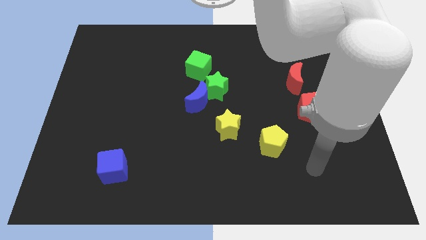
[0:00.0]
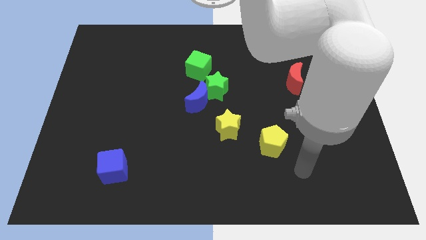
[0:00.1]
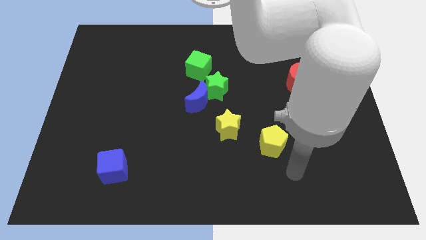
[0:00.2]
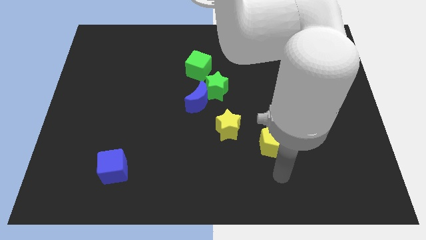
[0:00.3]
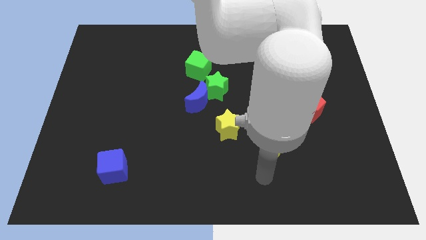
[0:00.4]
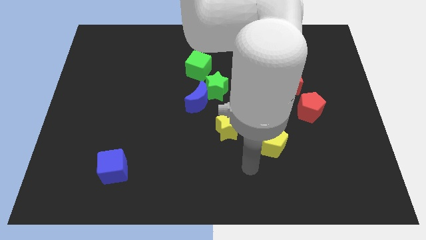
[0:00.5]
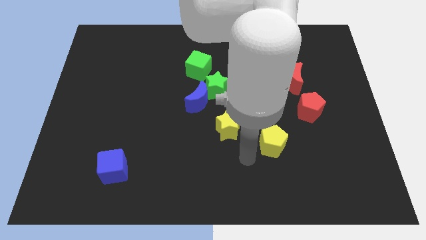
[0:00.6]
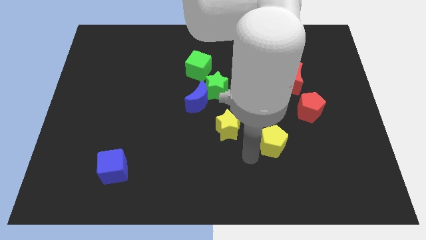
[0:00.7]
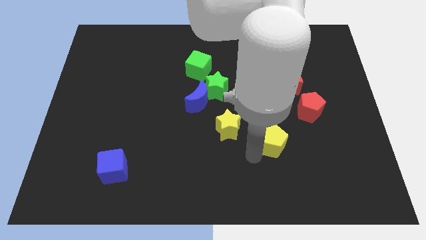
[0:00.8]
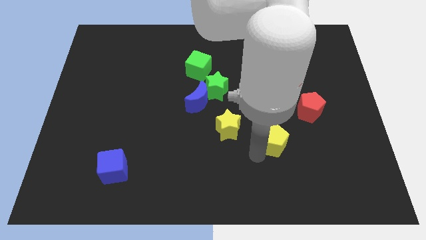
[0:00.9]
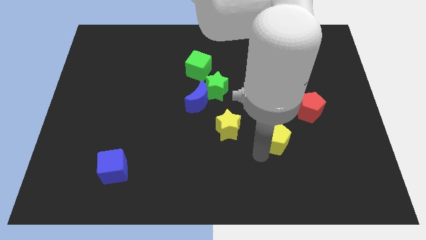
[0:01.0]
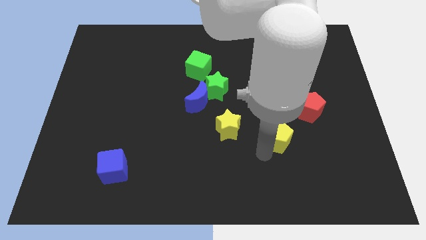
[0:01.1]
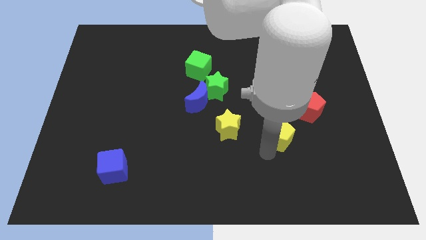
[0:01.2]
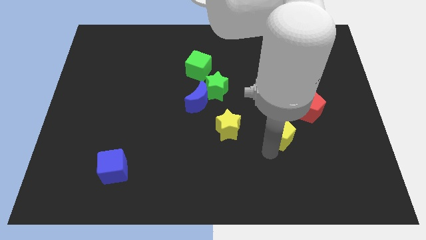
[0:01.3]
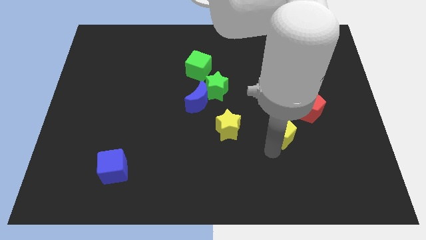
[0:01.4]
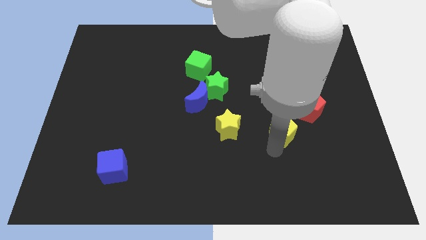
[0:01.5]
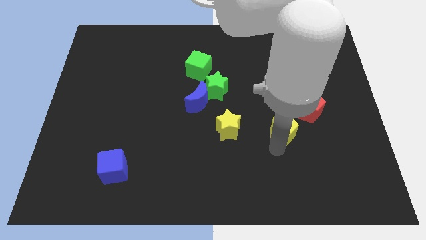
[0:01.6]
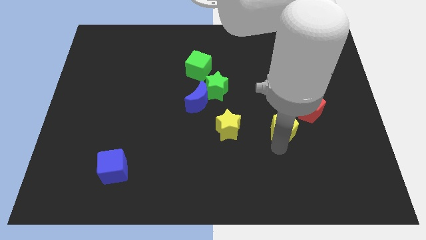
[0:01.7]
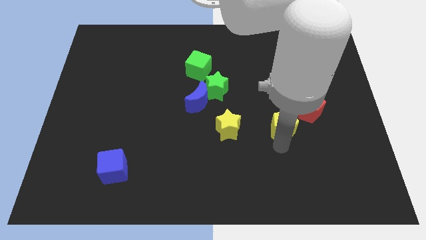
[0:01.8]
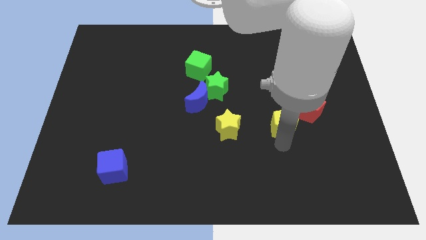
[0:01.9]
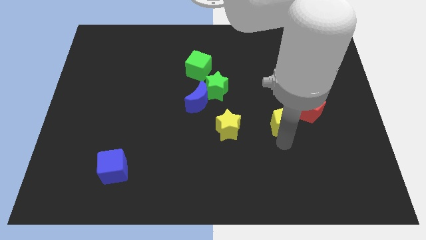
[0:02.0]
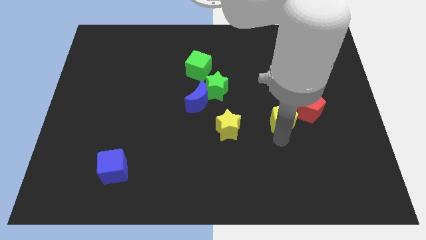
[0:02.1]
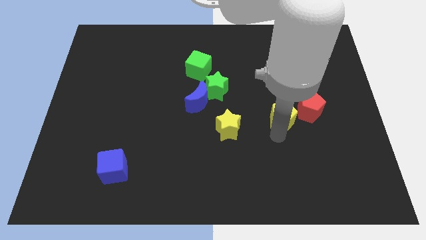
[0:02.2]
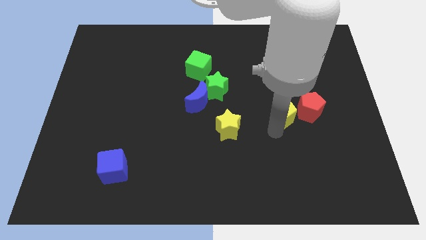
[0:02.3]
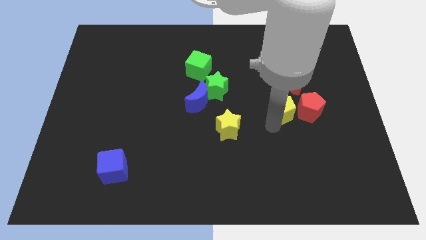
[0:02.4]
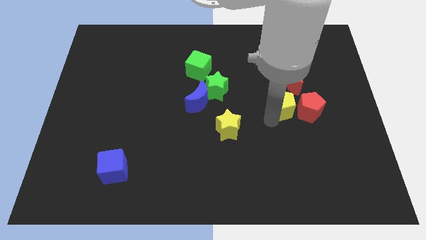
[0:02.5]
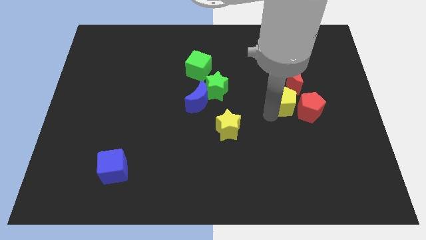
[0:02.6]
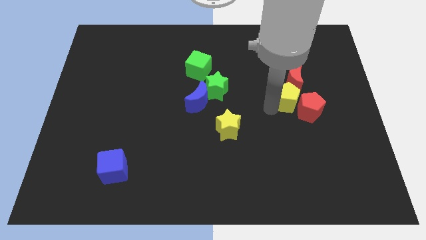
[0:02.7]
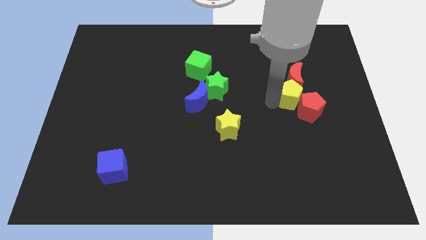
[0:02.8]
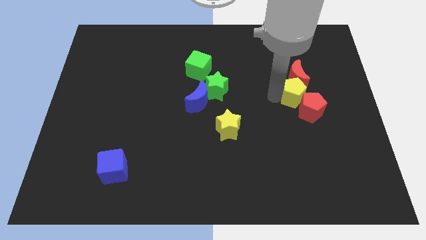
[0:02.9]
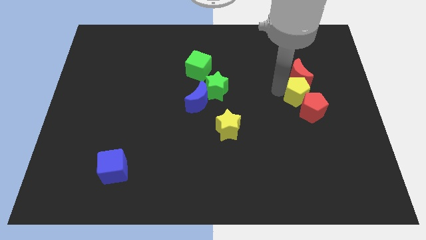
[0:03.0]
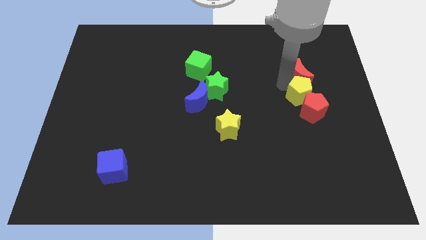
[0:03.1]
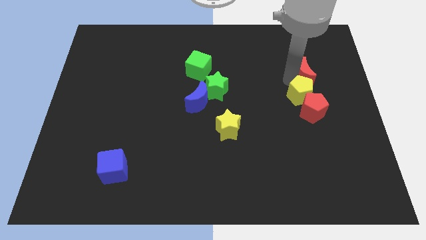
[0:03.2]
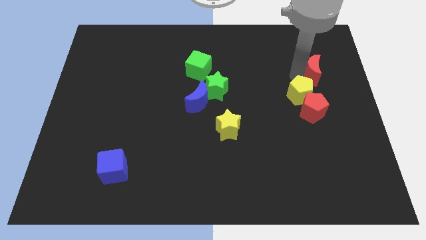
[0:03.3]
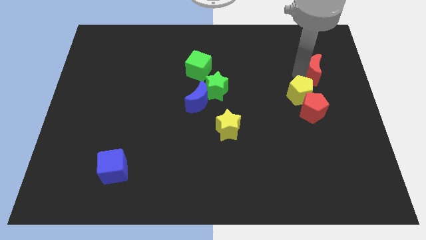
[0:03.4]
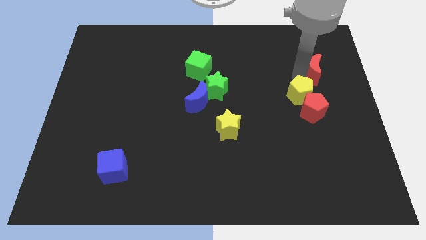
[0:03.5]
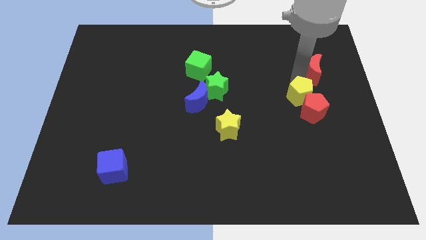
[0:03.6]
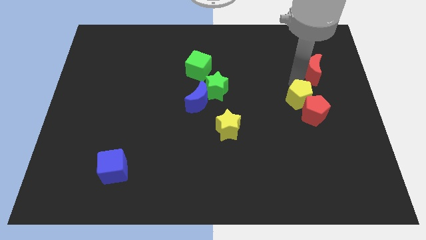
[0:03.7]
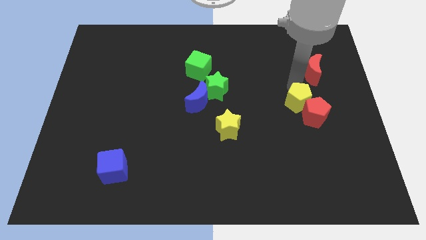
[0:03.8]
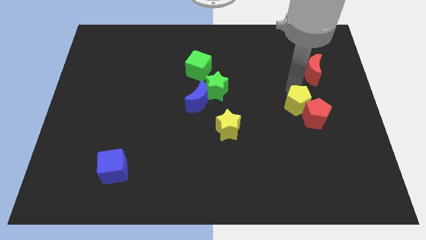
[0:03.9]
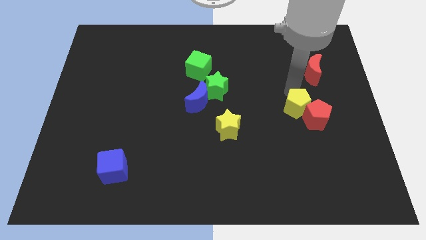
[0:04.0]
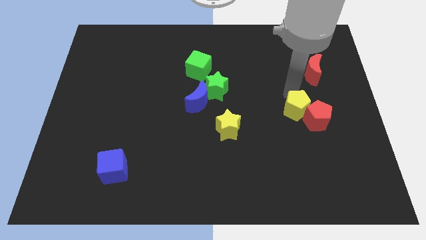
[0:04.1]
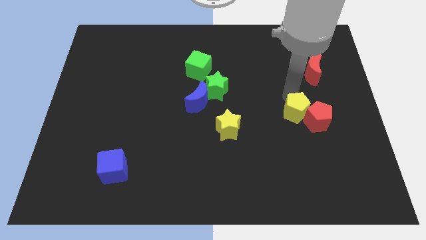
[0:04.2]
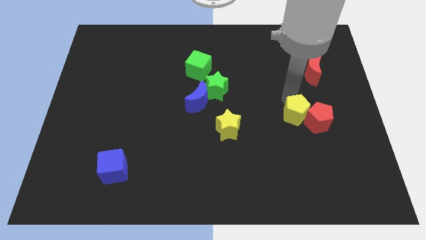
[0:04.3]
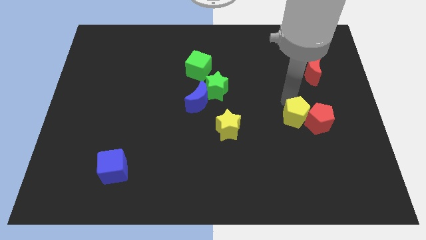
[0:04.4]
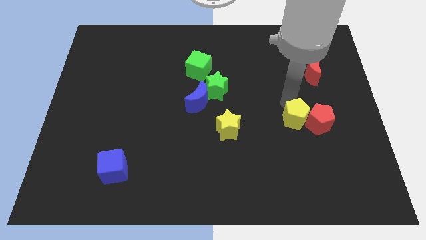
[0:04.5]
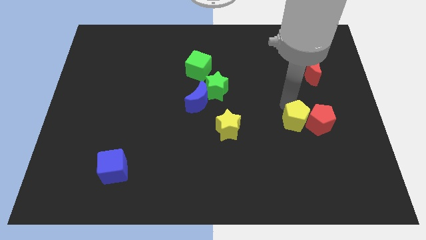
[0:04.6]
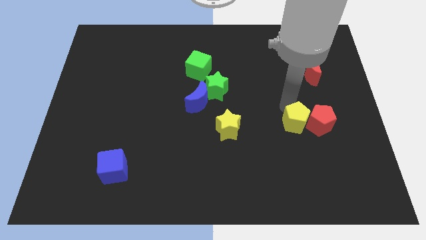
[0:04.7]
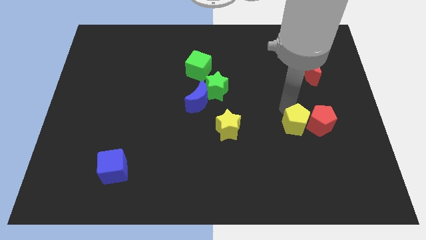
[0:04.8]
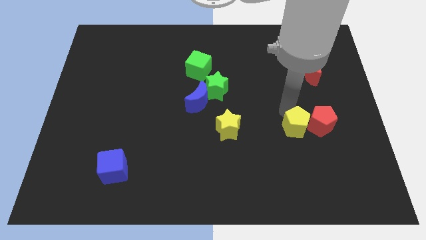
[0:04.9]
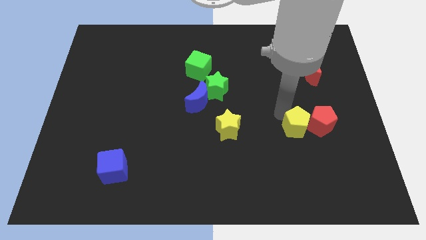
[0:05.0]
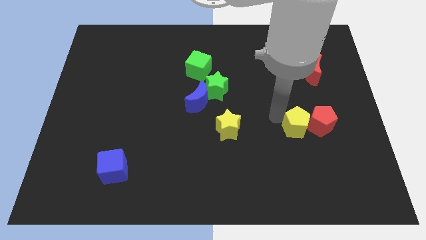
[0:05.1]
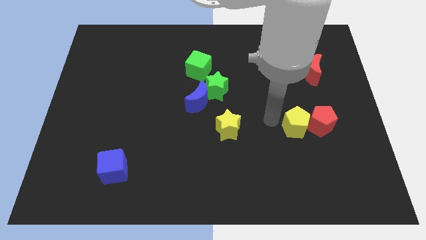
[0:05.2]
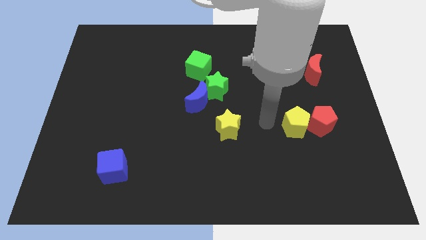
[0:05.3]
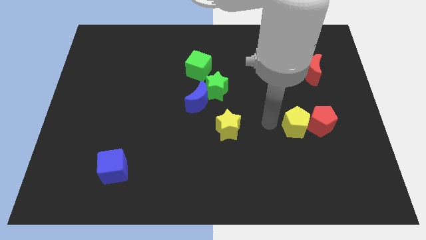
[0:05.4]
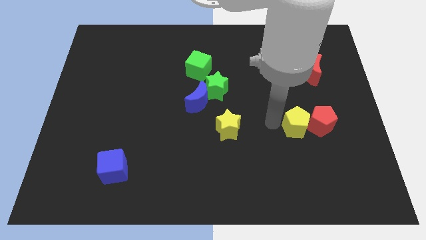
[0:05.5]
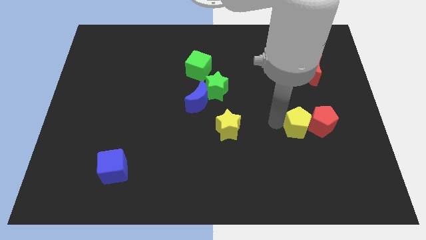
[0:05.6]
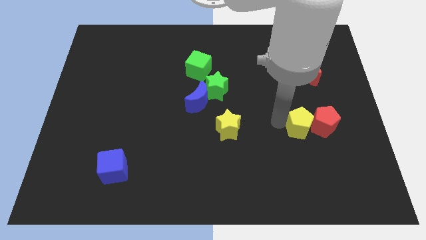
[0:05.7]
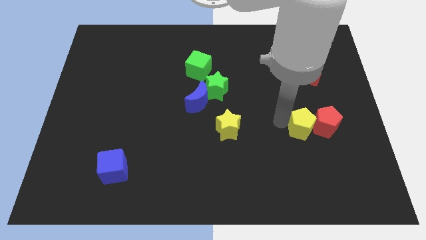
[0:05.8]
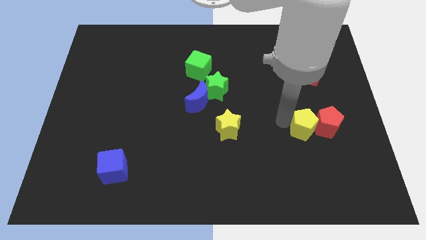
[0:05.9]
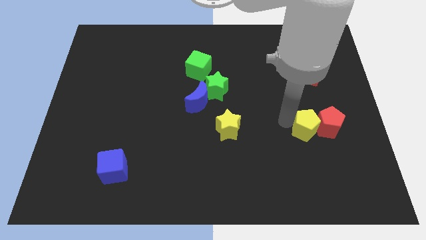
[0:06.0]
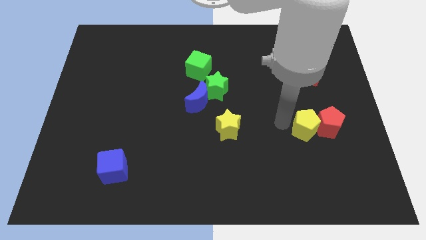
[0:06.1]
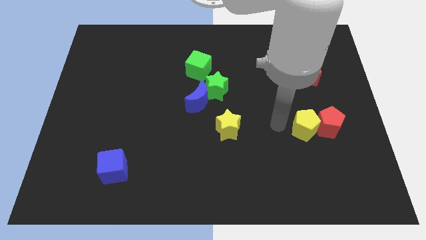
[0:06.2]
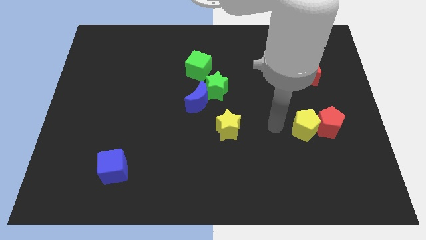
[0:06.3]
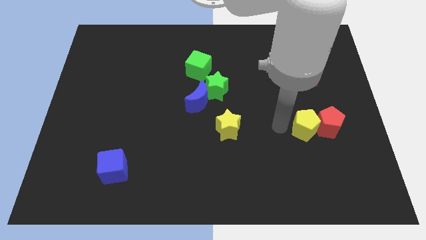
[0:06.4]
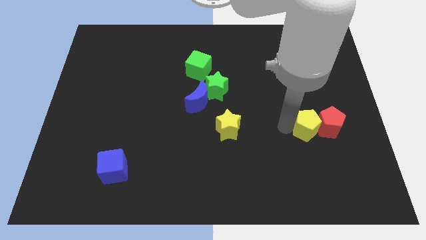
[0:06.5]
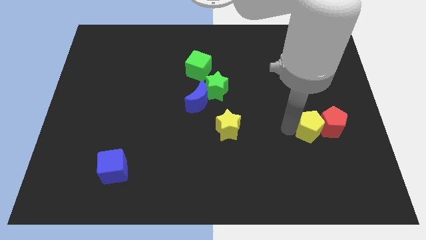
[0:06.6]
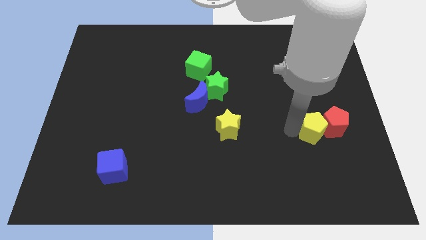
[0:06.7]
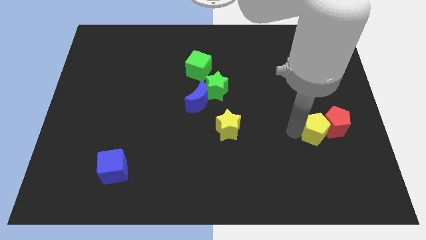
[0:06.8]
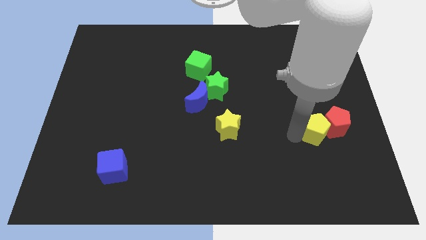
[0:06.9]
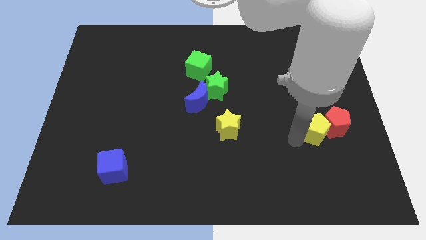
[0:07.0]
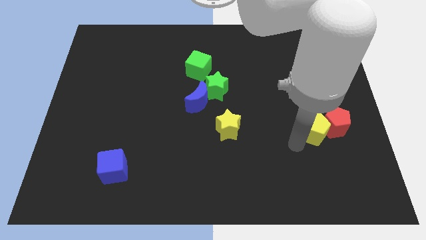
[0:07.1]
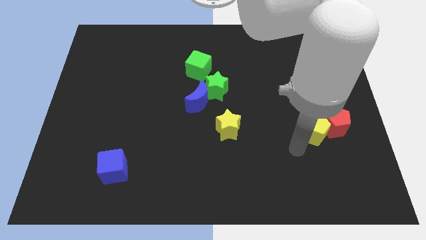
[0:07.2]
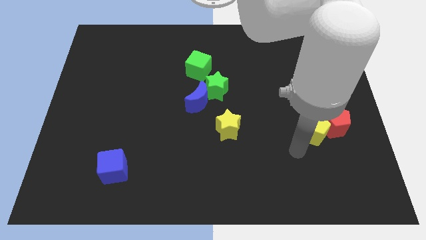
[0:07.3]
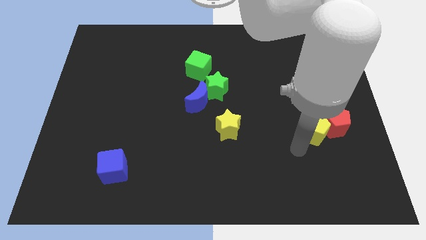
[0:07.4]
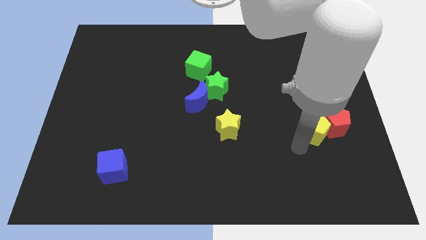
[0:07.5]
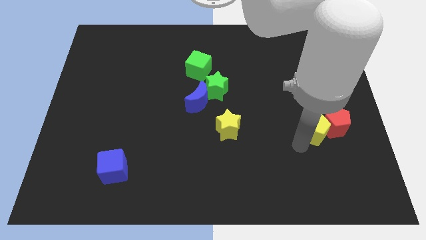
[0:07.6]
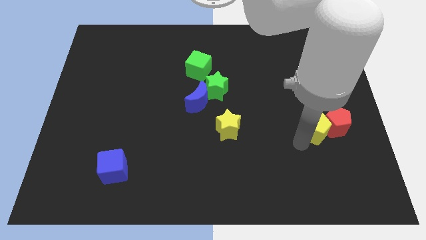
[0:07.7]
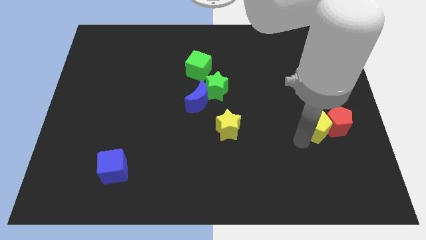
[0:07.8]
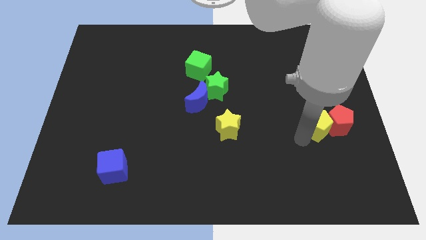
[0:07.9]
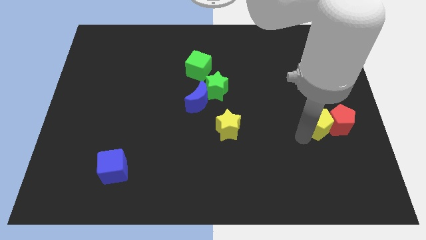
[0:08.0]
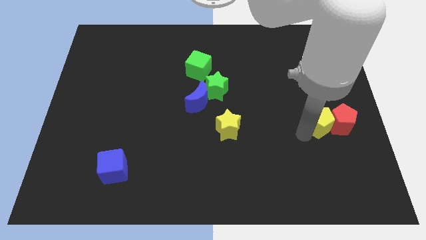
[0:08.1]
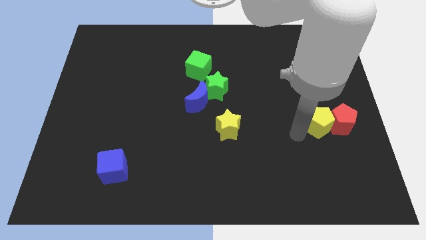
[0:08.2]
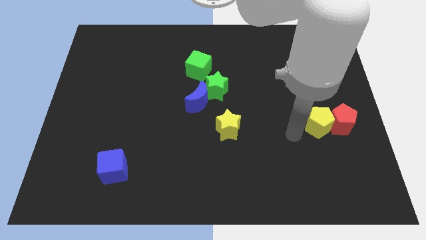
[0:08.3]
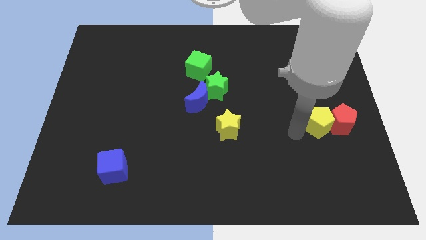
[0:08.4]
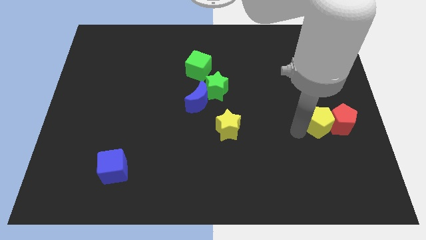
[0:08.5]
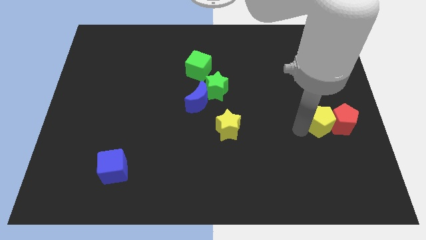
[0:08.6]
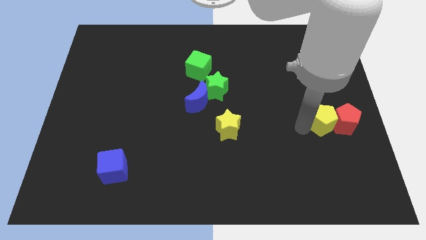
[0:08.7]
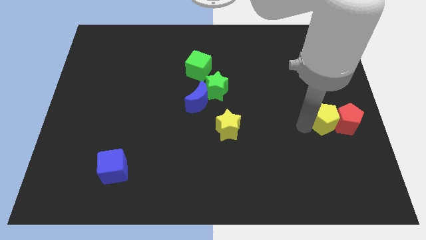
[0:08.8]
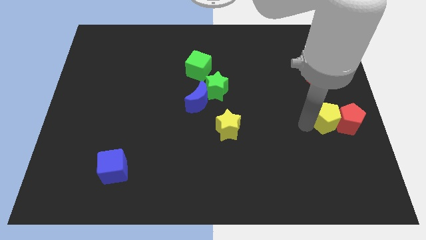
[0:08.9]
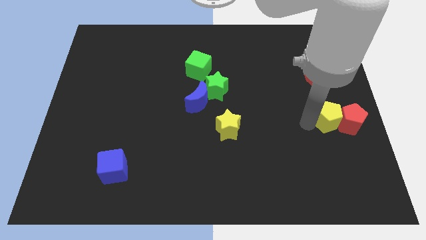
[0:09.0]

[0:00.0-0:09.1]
push the yellow pentagon to the right side
